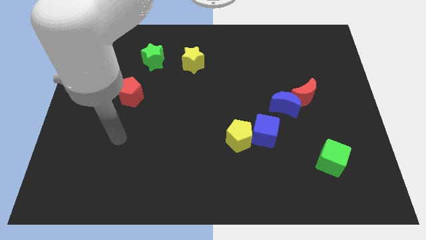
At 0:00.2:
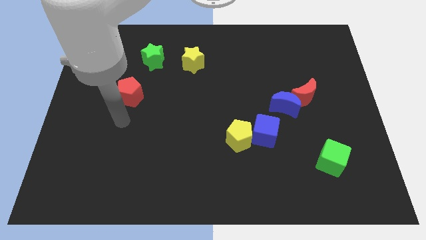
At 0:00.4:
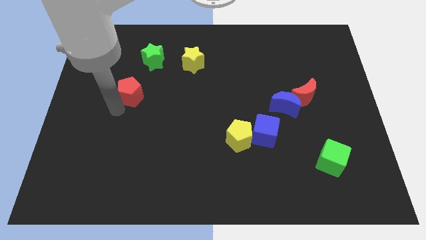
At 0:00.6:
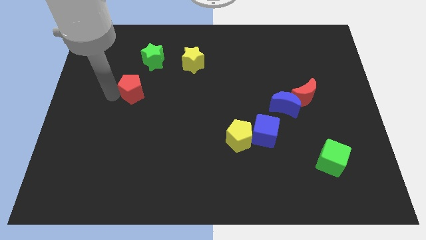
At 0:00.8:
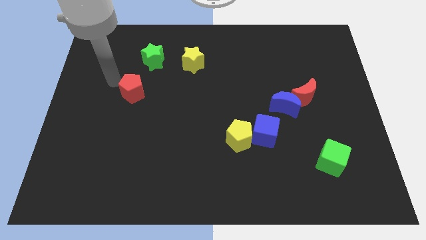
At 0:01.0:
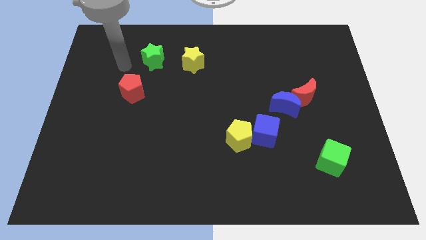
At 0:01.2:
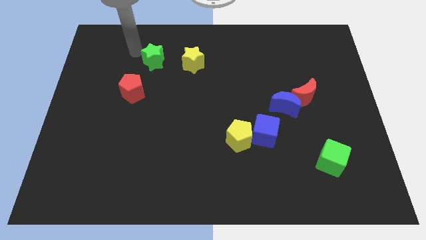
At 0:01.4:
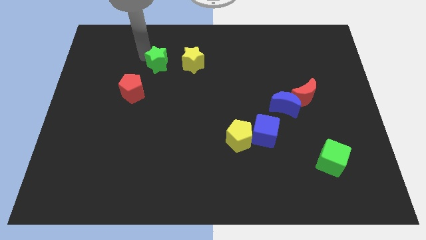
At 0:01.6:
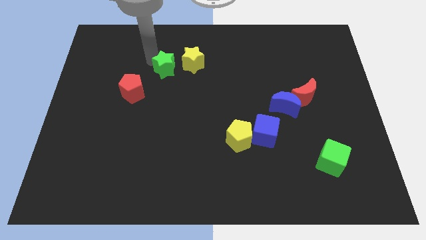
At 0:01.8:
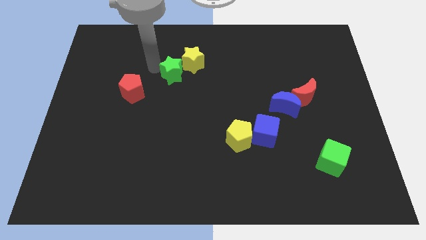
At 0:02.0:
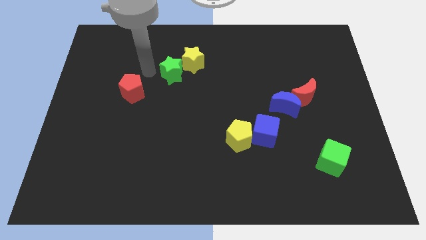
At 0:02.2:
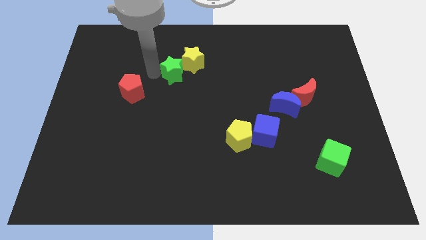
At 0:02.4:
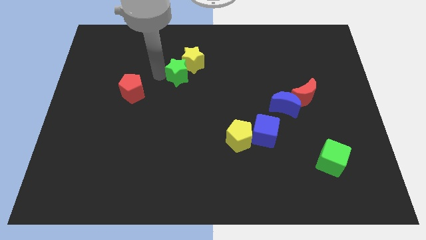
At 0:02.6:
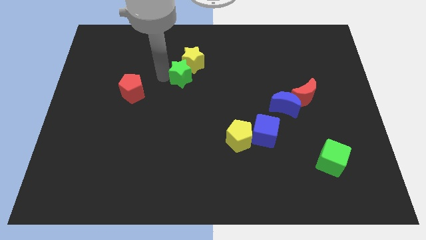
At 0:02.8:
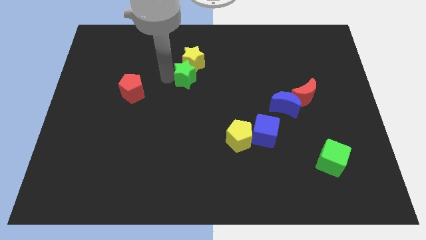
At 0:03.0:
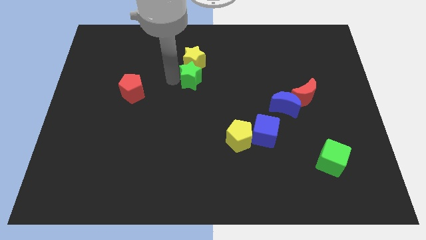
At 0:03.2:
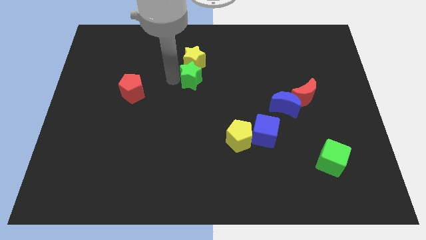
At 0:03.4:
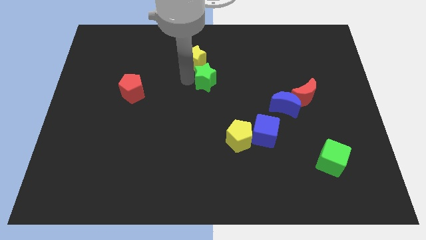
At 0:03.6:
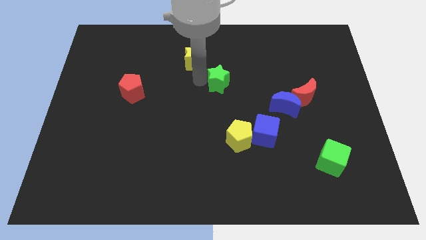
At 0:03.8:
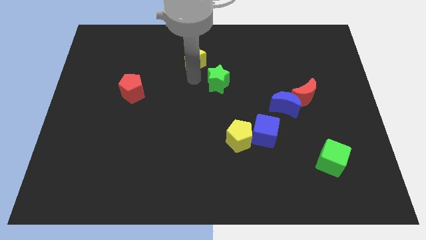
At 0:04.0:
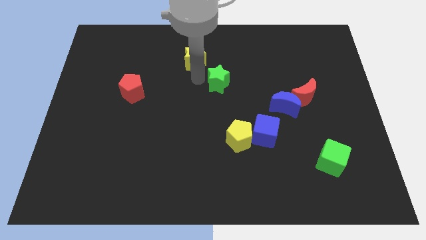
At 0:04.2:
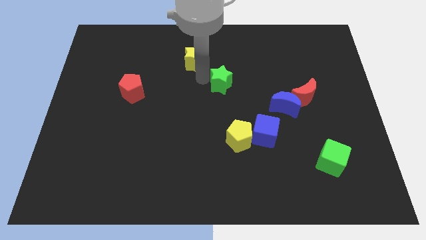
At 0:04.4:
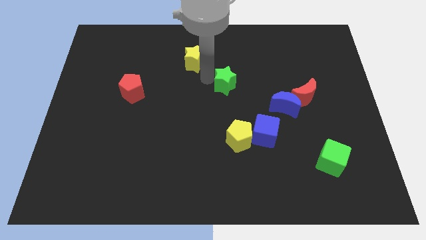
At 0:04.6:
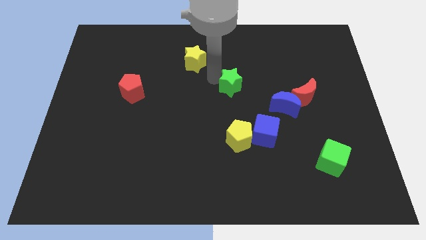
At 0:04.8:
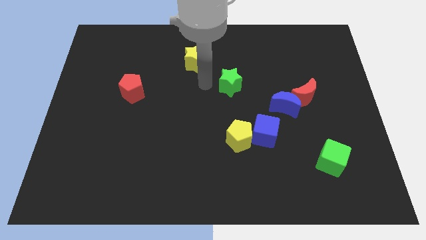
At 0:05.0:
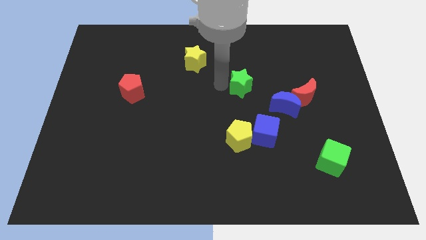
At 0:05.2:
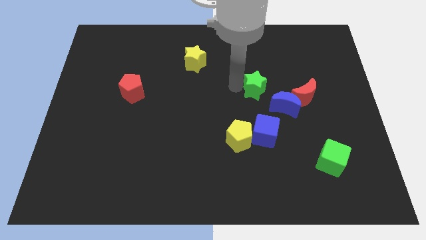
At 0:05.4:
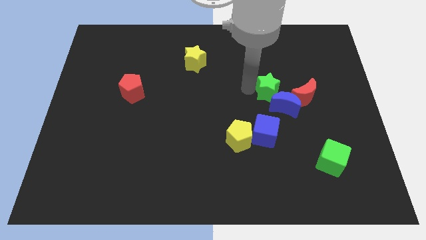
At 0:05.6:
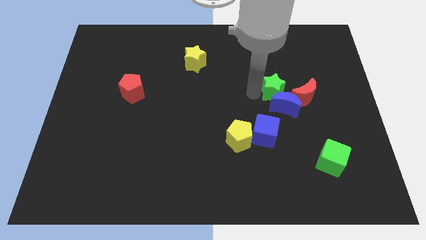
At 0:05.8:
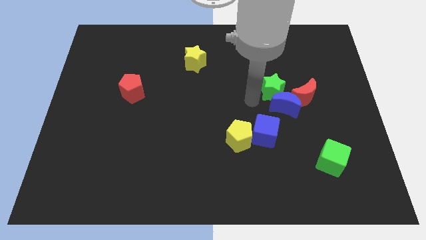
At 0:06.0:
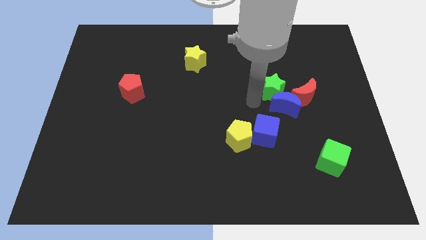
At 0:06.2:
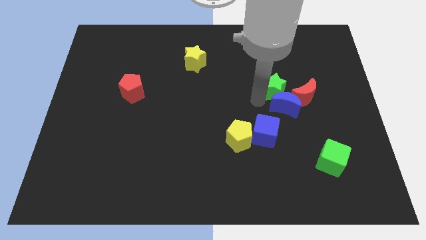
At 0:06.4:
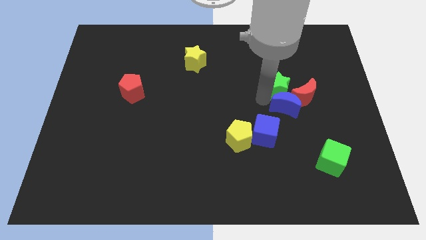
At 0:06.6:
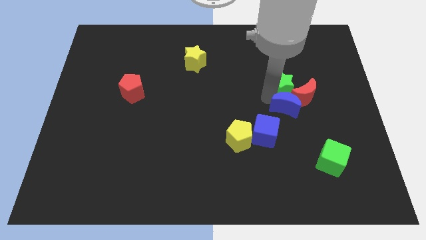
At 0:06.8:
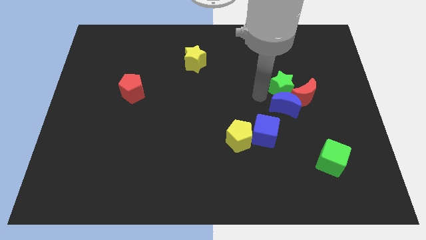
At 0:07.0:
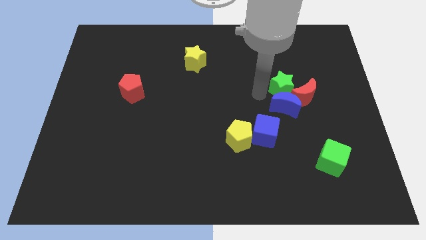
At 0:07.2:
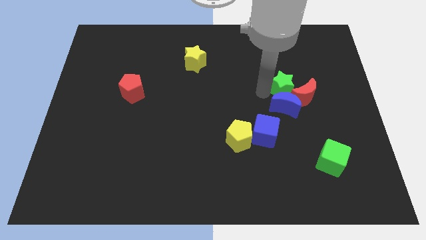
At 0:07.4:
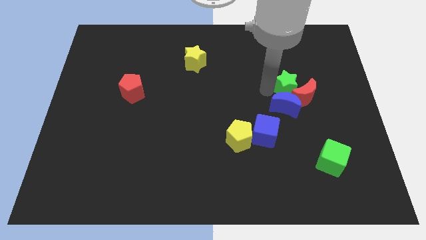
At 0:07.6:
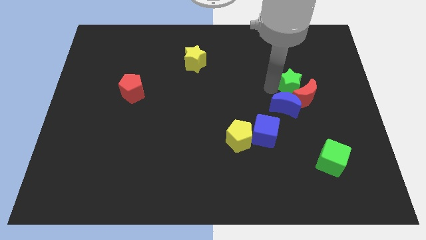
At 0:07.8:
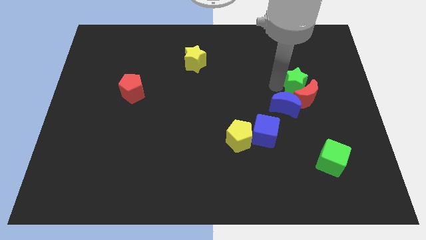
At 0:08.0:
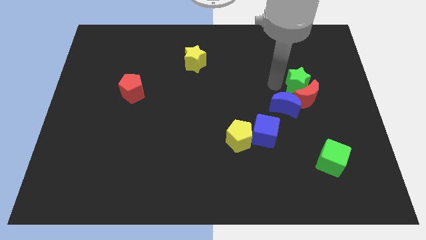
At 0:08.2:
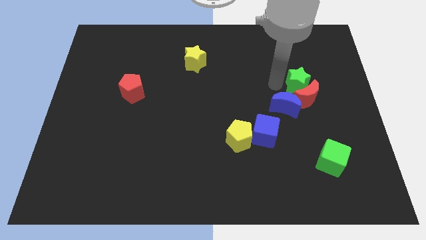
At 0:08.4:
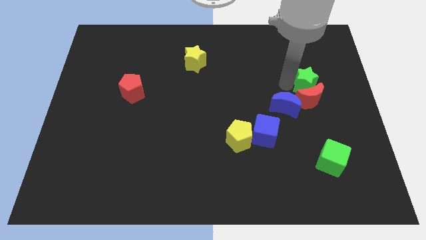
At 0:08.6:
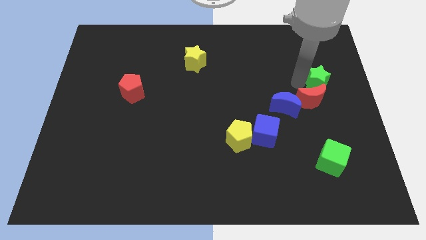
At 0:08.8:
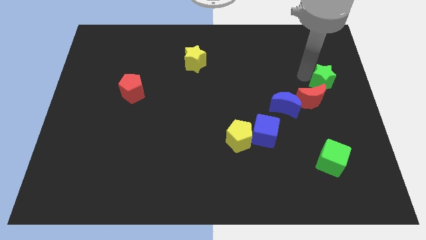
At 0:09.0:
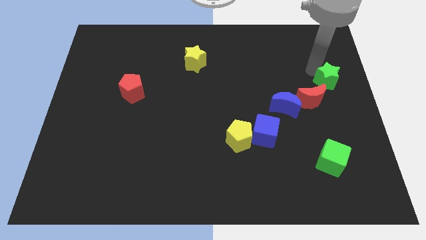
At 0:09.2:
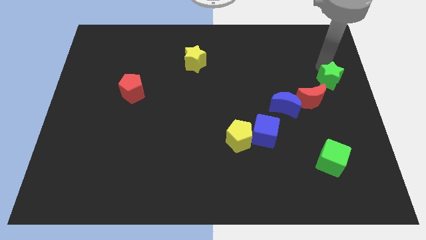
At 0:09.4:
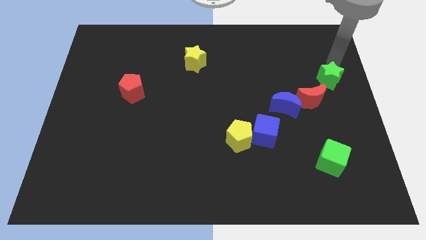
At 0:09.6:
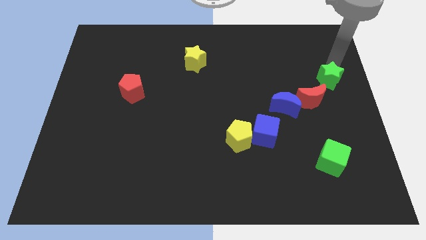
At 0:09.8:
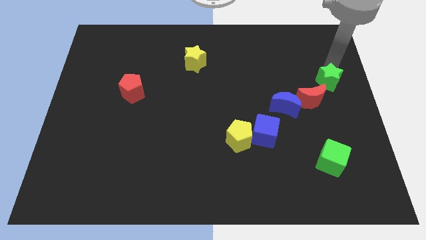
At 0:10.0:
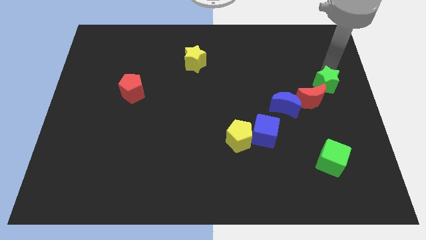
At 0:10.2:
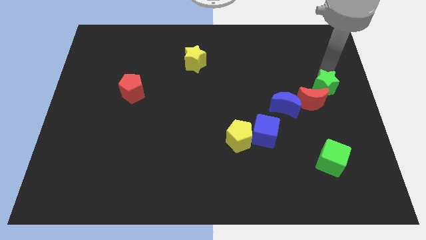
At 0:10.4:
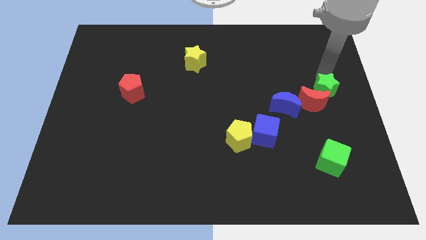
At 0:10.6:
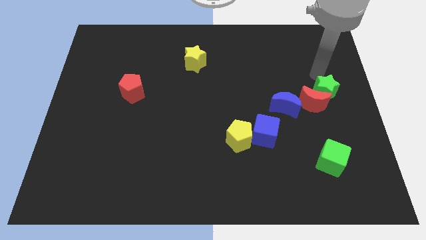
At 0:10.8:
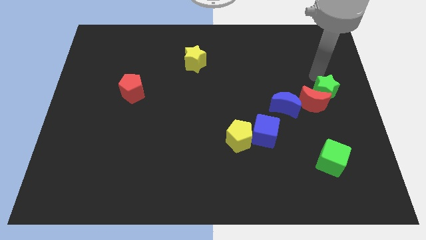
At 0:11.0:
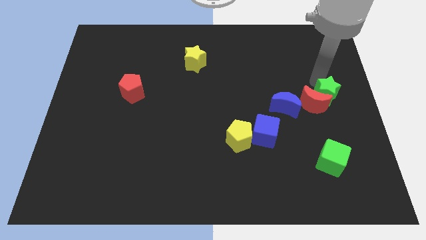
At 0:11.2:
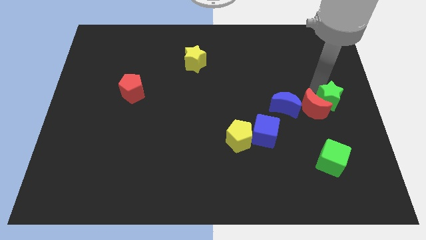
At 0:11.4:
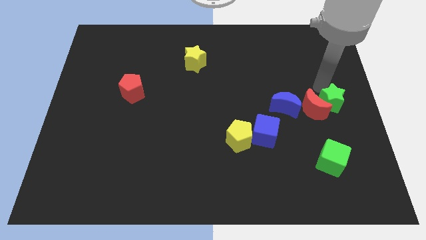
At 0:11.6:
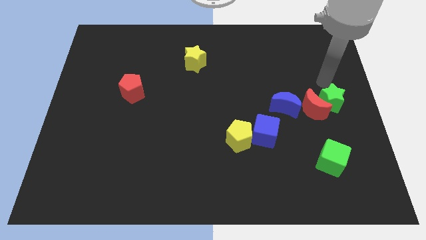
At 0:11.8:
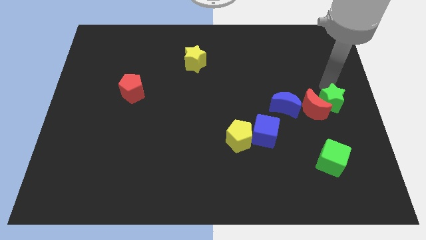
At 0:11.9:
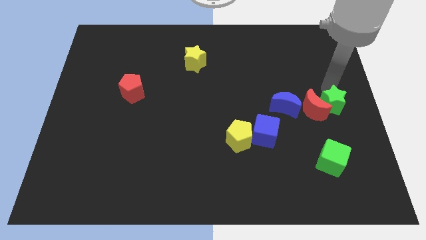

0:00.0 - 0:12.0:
move the green star to the bottom right side of the red moon

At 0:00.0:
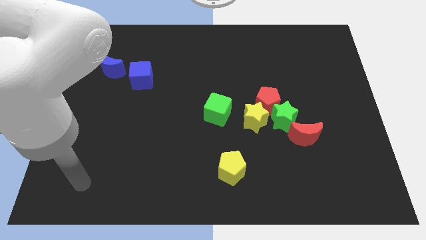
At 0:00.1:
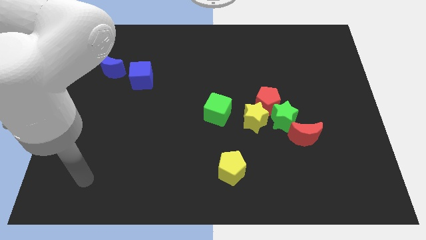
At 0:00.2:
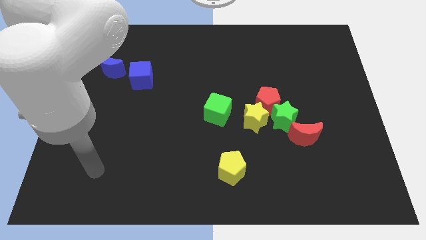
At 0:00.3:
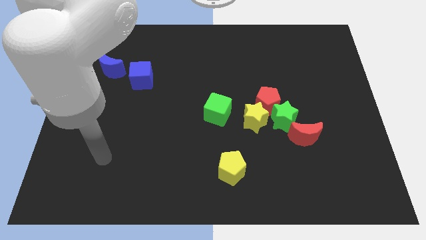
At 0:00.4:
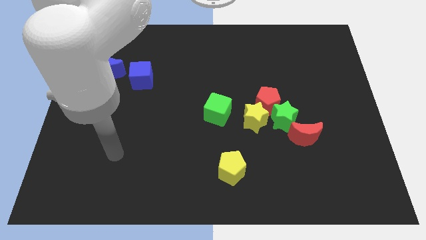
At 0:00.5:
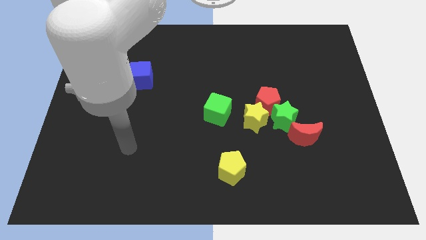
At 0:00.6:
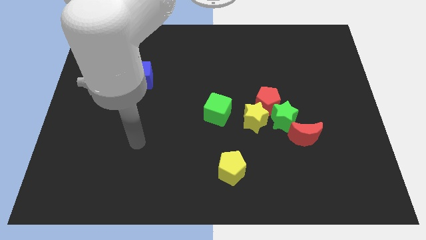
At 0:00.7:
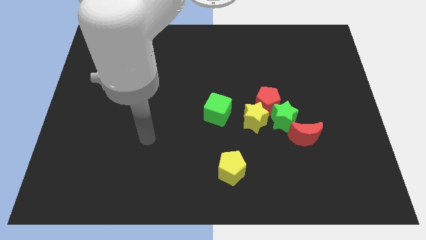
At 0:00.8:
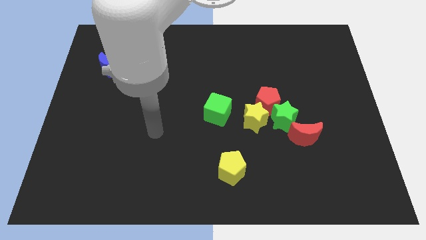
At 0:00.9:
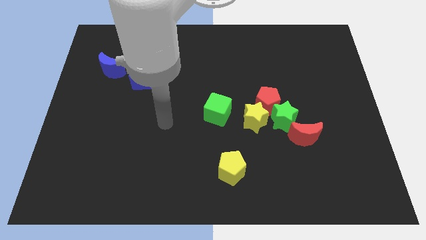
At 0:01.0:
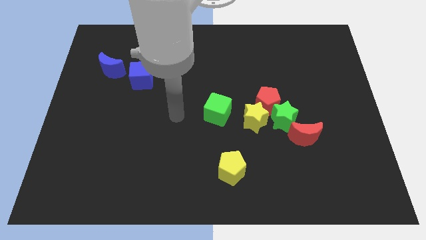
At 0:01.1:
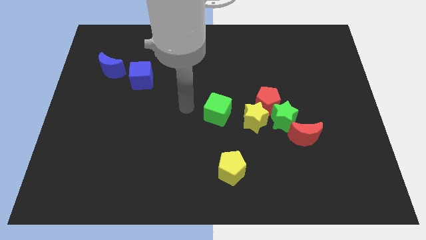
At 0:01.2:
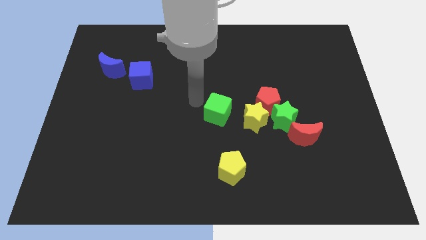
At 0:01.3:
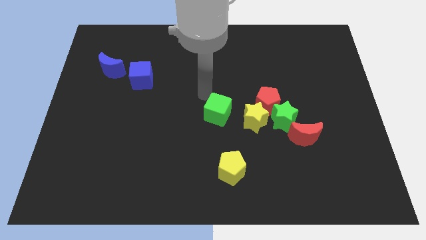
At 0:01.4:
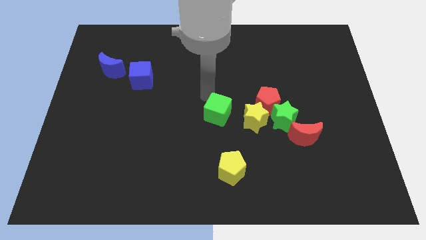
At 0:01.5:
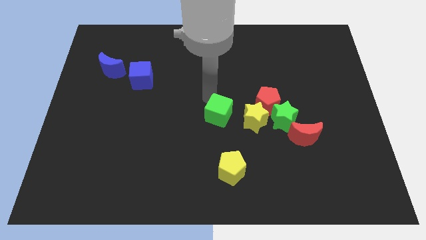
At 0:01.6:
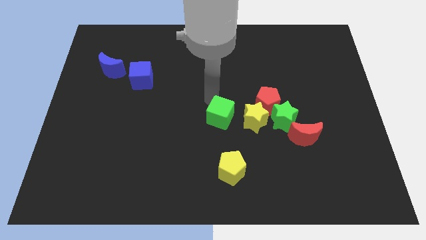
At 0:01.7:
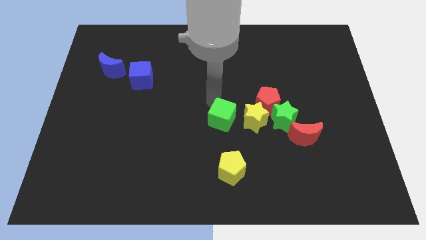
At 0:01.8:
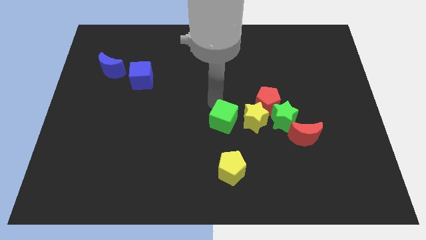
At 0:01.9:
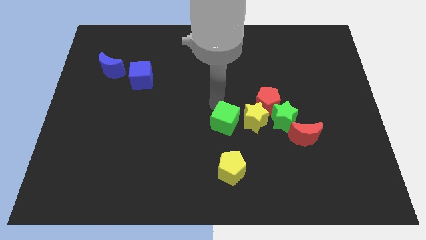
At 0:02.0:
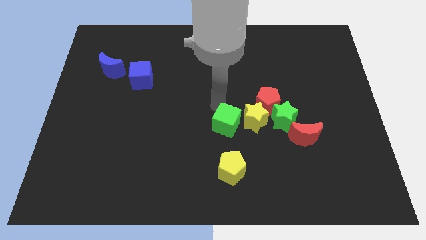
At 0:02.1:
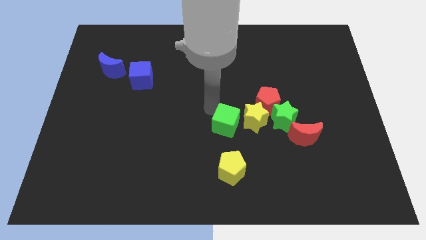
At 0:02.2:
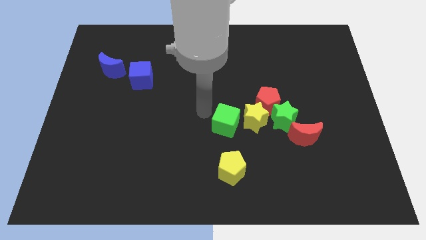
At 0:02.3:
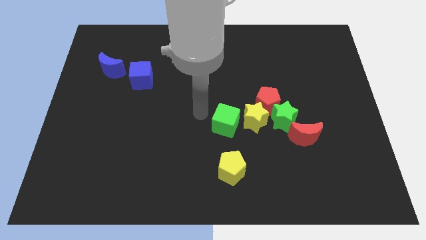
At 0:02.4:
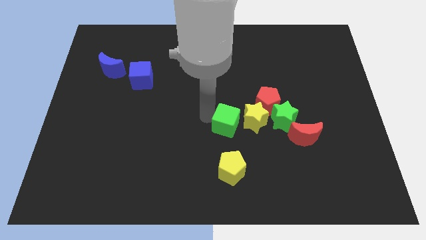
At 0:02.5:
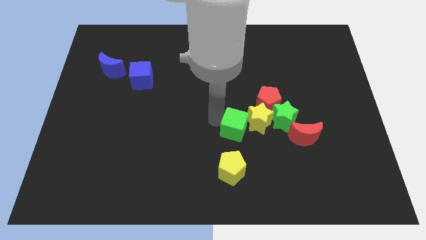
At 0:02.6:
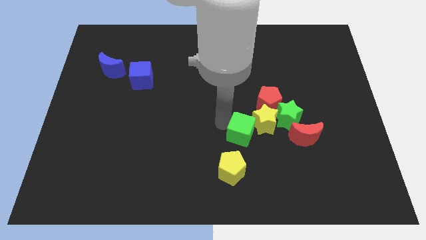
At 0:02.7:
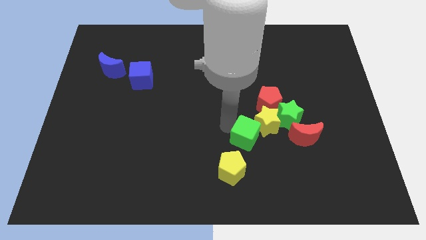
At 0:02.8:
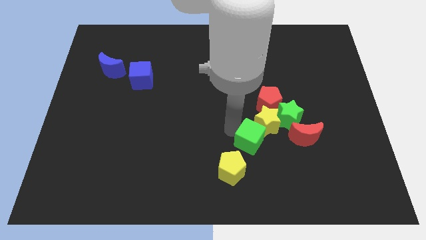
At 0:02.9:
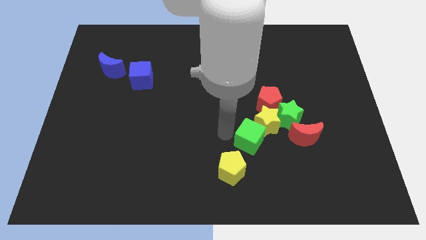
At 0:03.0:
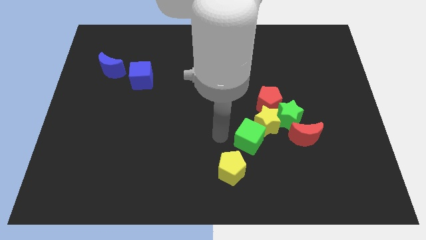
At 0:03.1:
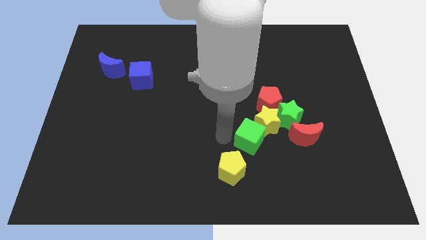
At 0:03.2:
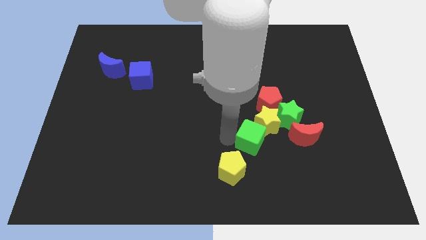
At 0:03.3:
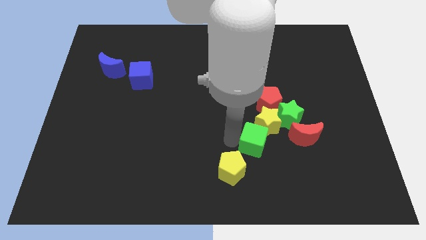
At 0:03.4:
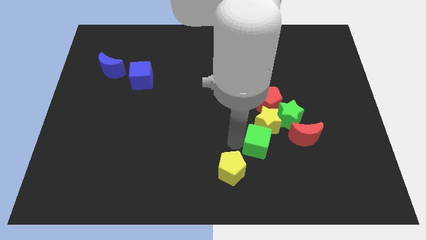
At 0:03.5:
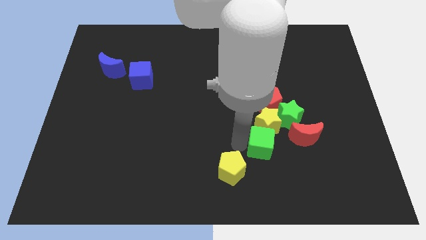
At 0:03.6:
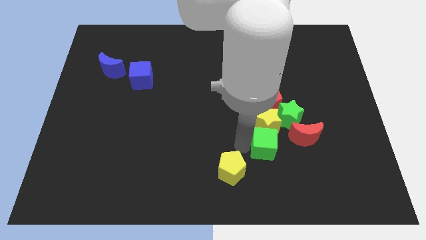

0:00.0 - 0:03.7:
push the green cube to the bottom right of the yellow star
